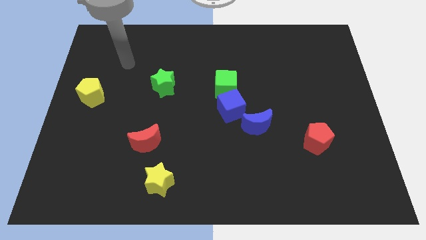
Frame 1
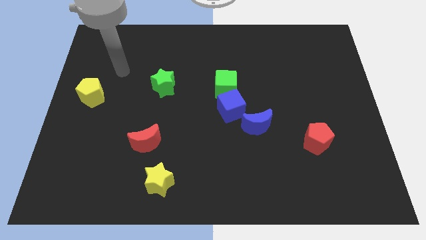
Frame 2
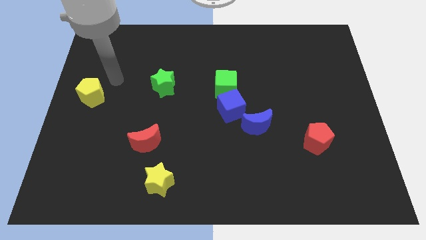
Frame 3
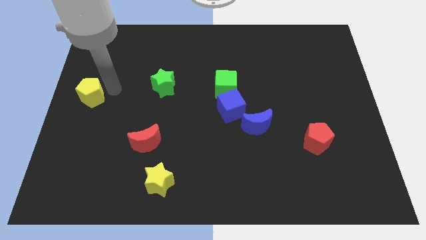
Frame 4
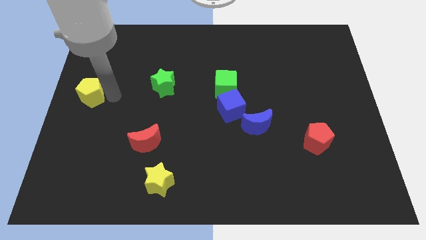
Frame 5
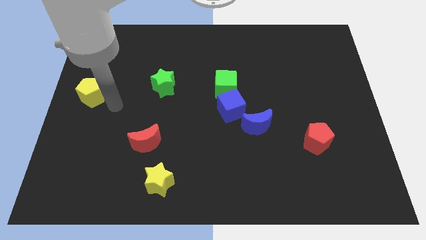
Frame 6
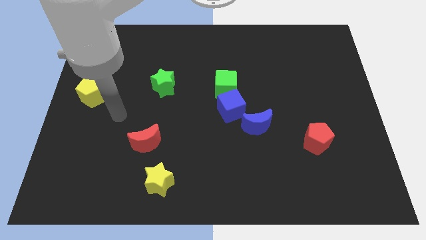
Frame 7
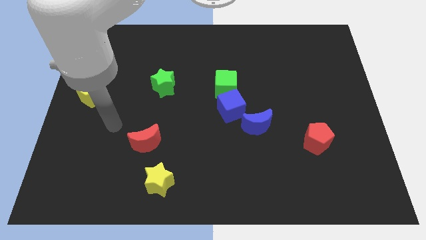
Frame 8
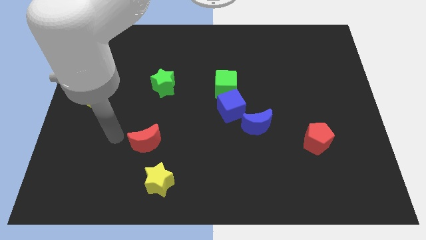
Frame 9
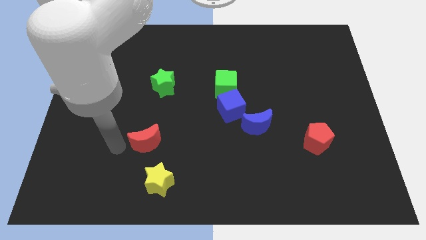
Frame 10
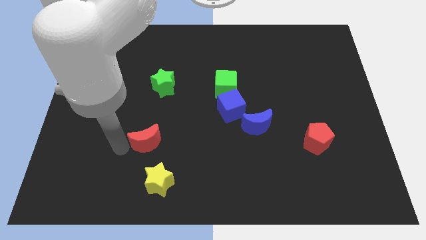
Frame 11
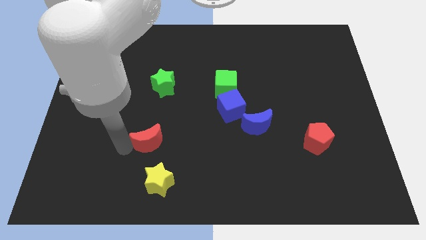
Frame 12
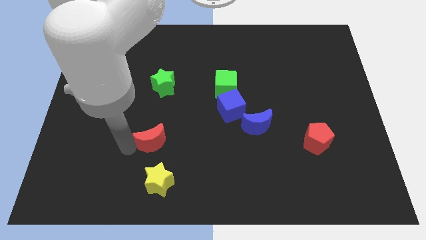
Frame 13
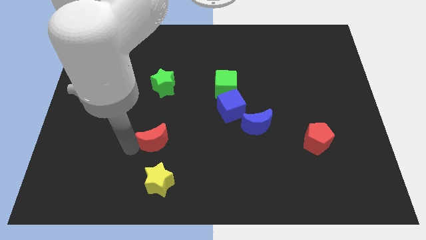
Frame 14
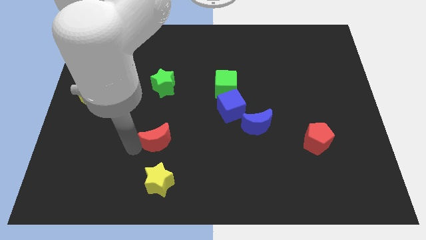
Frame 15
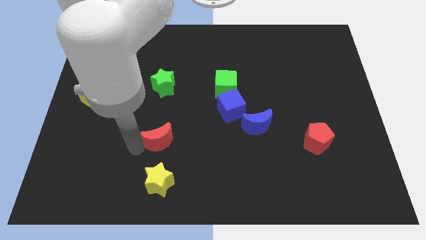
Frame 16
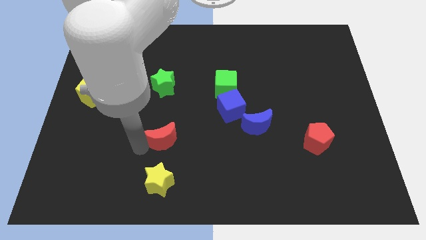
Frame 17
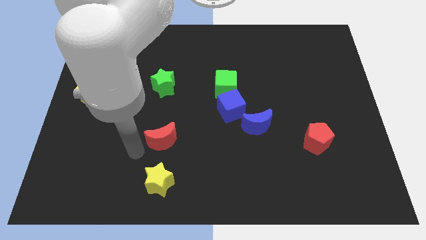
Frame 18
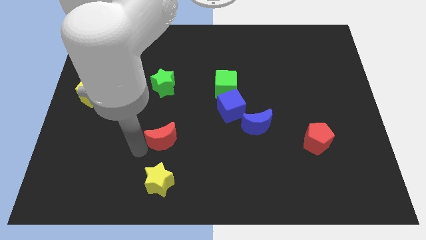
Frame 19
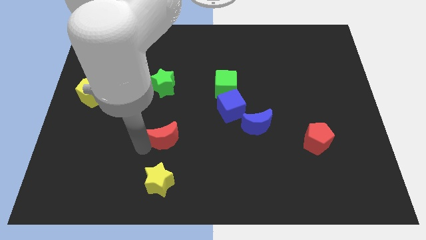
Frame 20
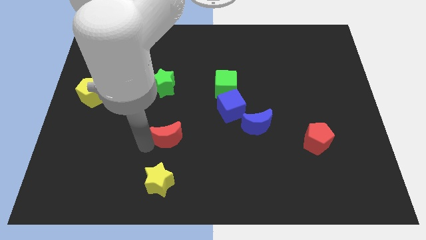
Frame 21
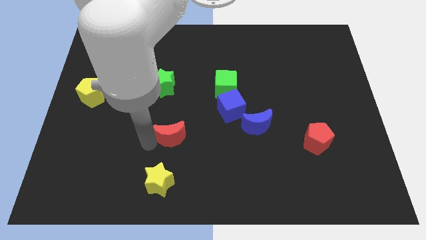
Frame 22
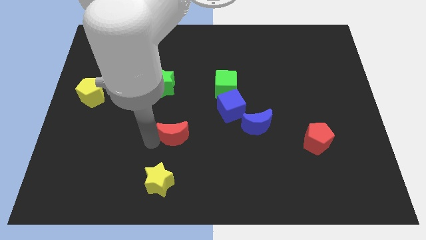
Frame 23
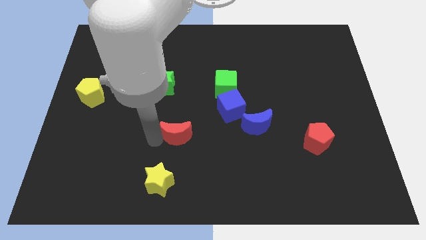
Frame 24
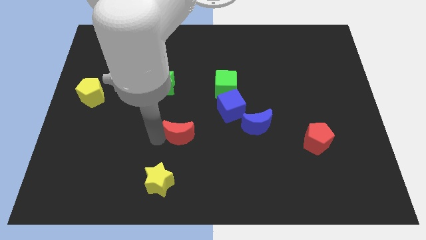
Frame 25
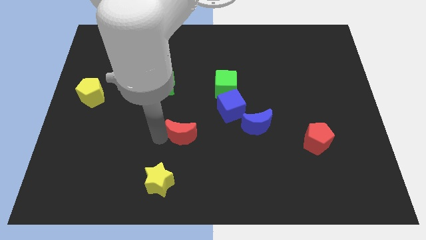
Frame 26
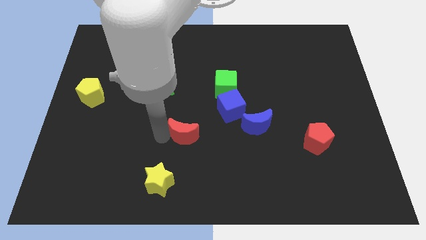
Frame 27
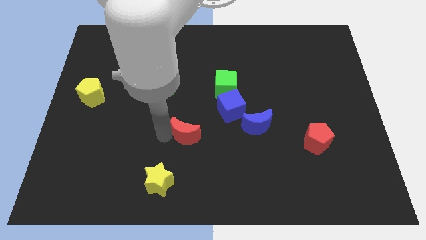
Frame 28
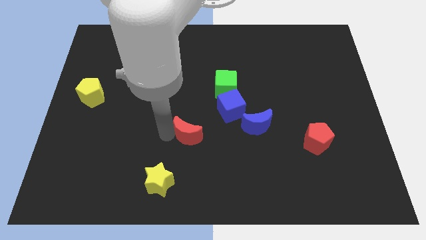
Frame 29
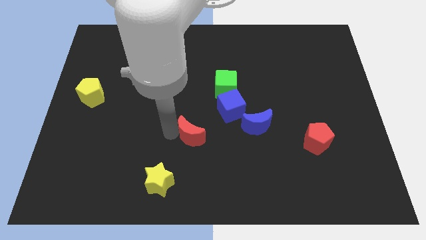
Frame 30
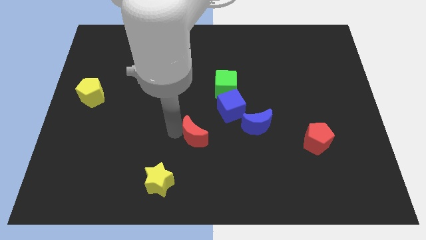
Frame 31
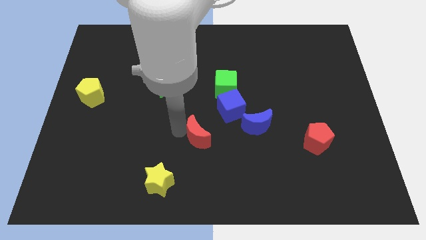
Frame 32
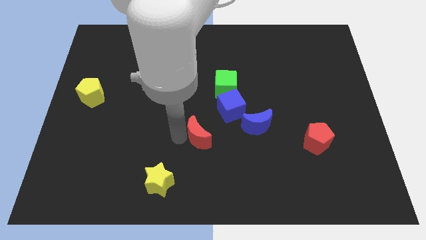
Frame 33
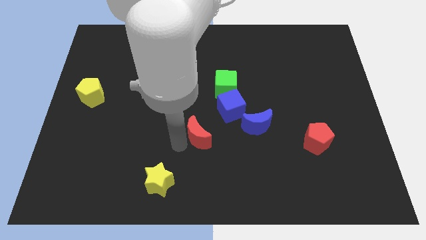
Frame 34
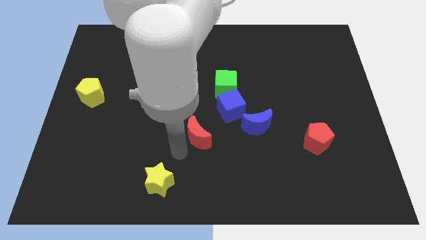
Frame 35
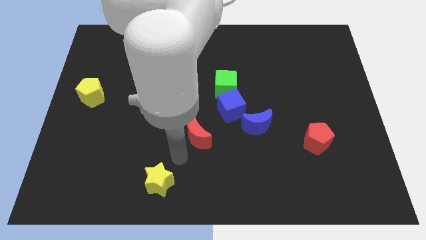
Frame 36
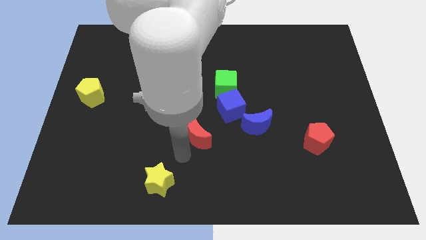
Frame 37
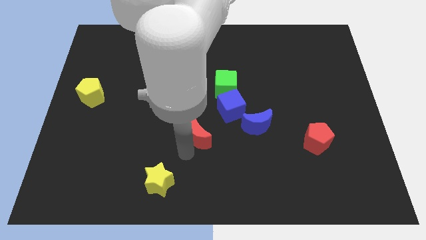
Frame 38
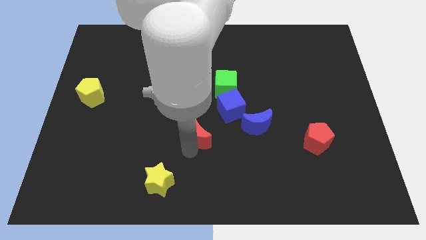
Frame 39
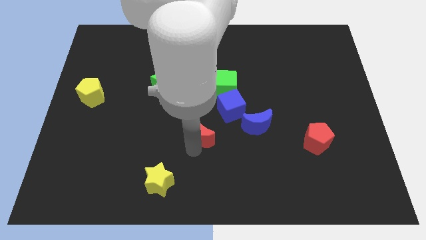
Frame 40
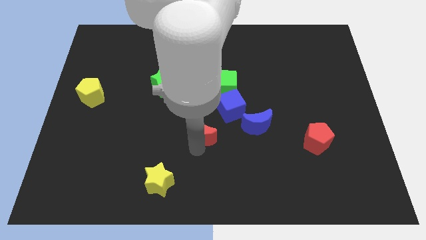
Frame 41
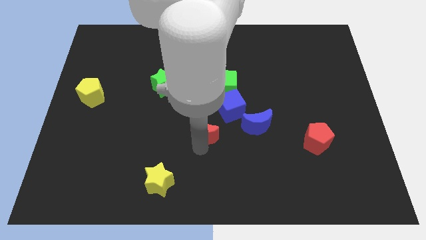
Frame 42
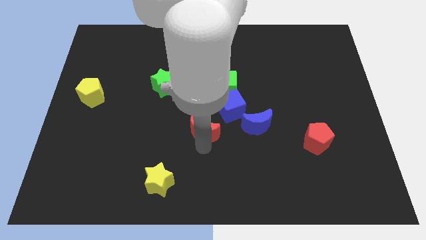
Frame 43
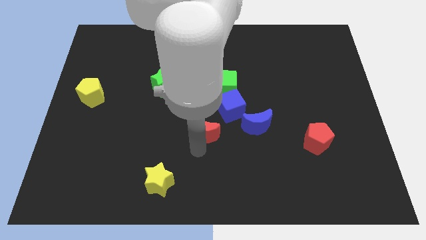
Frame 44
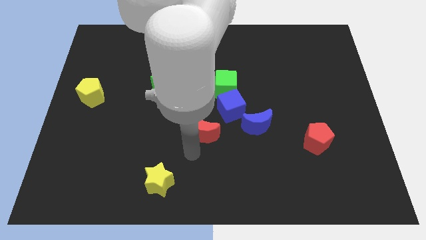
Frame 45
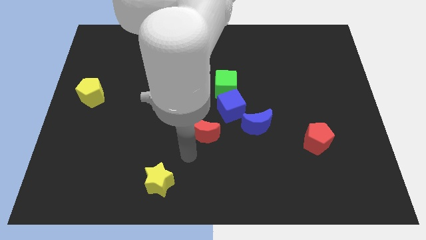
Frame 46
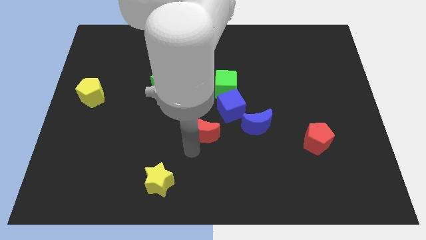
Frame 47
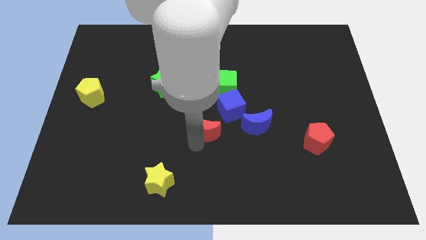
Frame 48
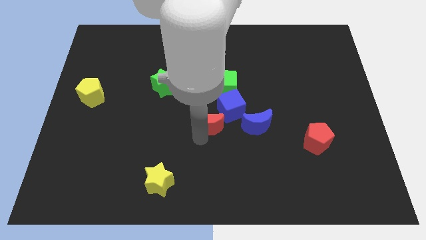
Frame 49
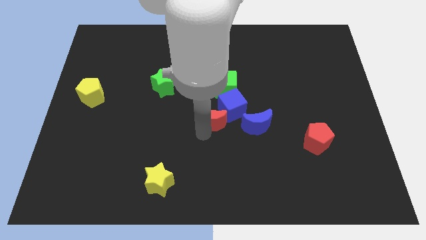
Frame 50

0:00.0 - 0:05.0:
put the red moon towards the blue cube

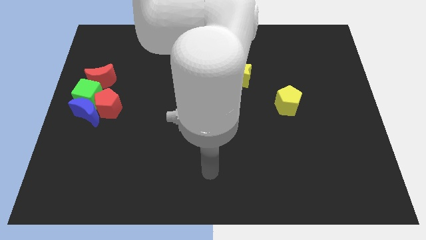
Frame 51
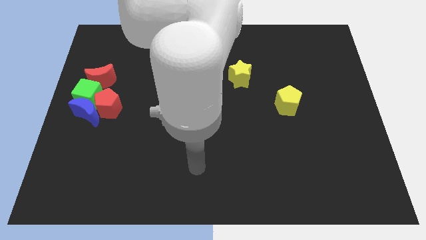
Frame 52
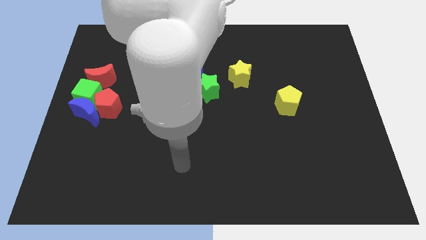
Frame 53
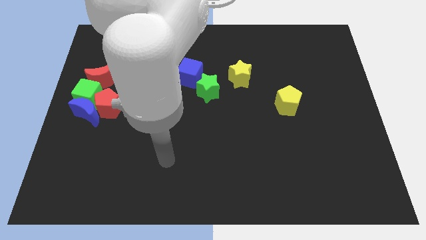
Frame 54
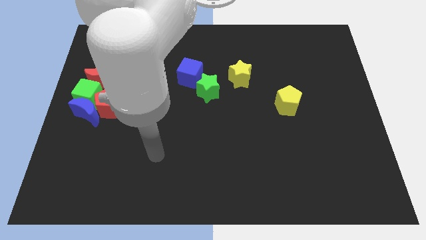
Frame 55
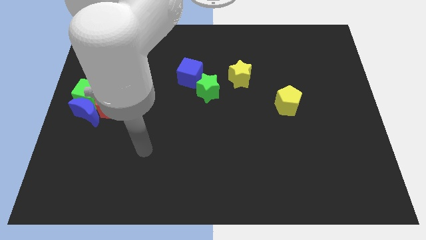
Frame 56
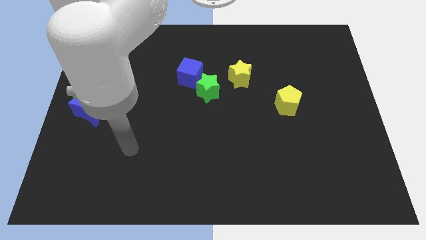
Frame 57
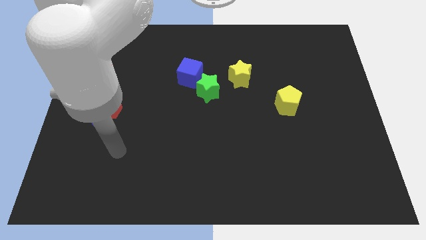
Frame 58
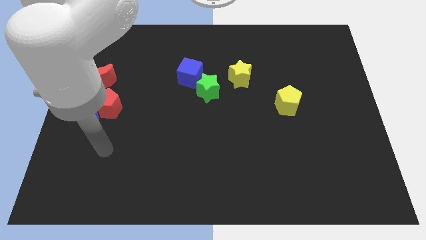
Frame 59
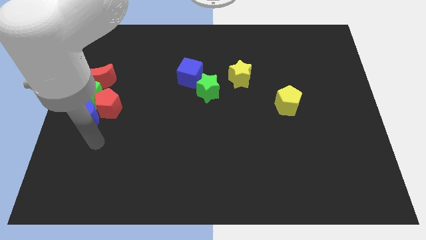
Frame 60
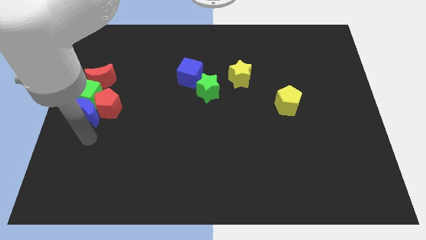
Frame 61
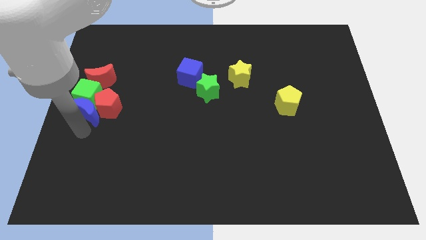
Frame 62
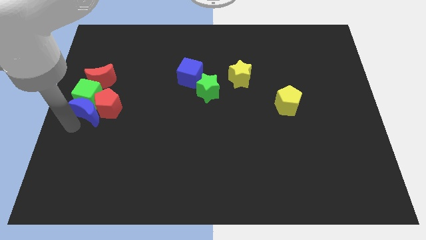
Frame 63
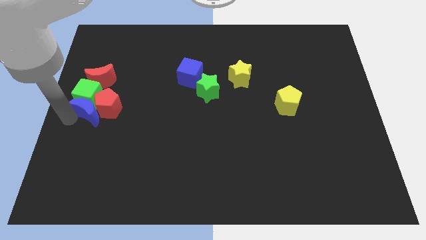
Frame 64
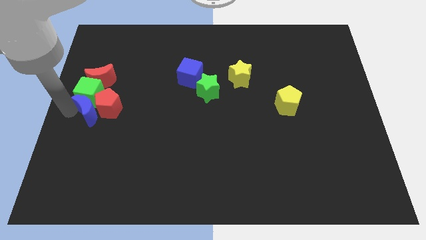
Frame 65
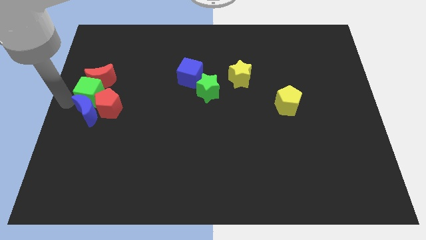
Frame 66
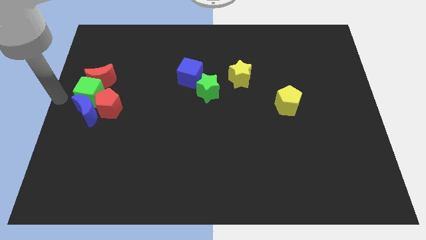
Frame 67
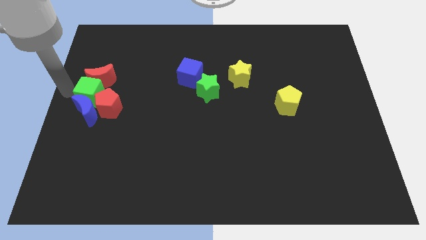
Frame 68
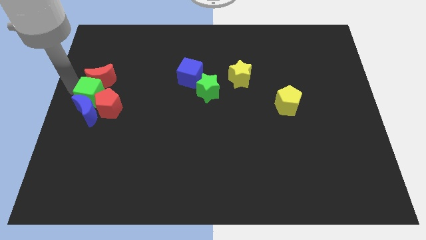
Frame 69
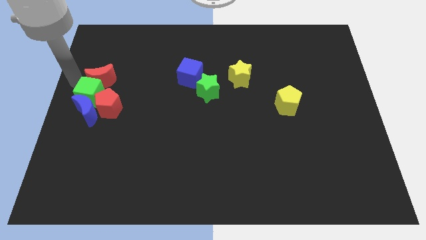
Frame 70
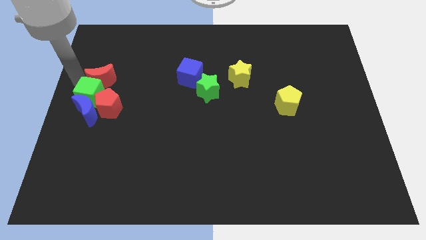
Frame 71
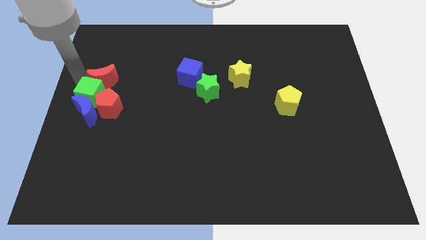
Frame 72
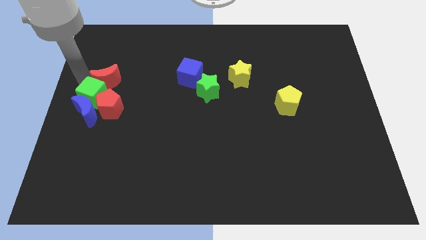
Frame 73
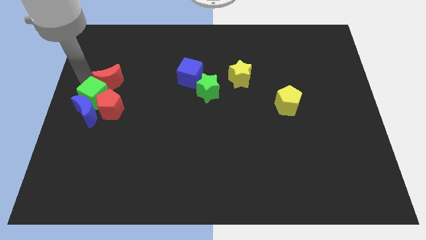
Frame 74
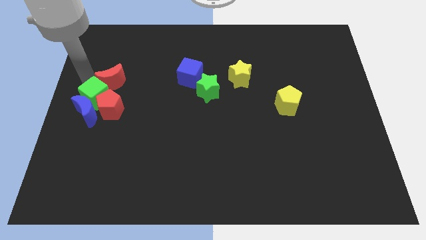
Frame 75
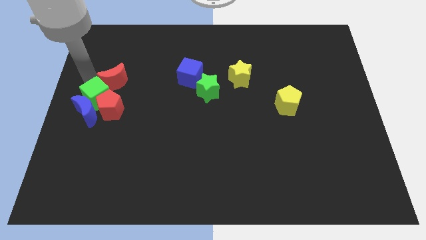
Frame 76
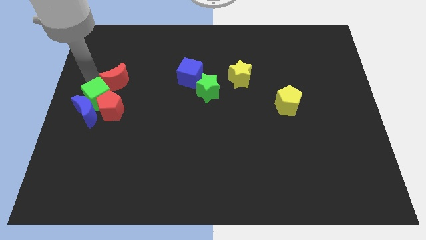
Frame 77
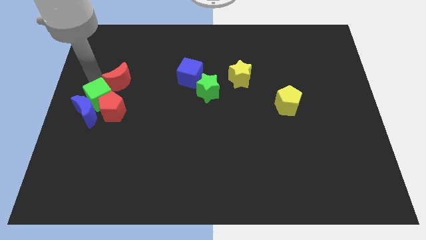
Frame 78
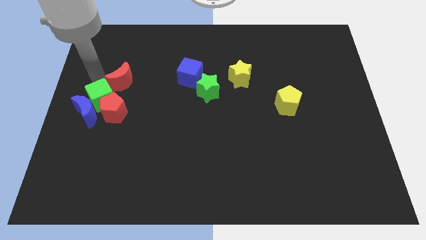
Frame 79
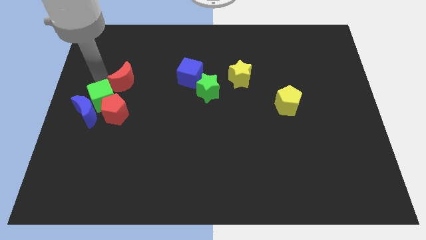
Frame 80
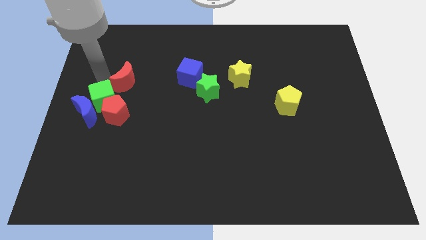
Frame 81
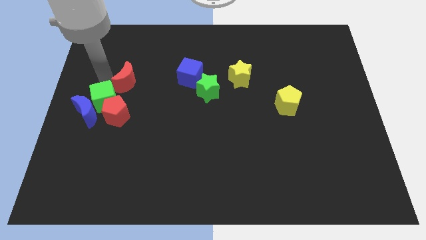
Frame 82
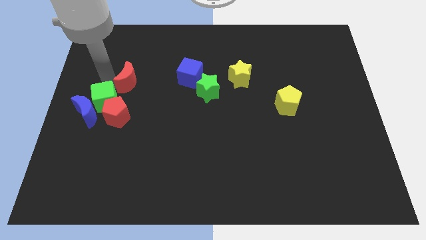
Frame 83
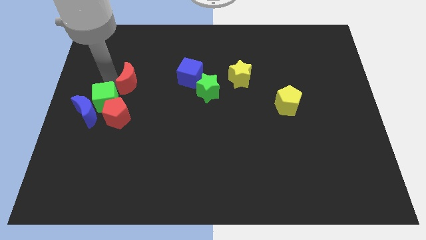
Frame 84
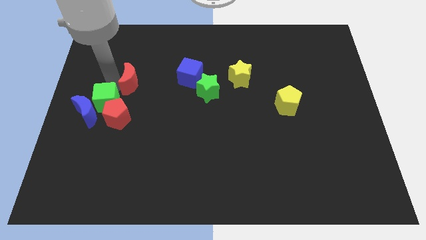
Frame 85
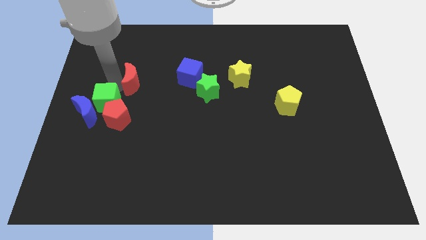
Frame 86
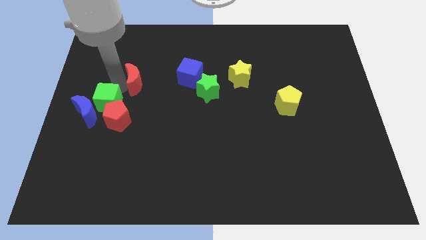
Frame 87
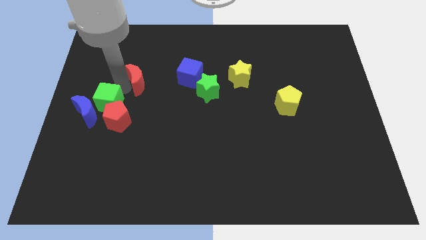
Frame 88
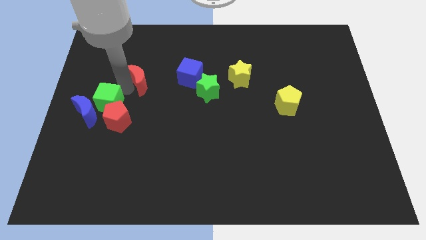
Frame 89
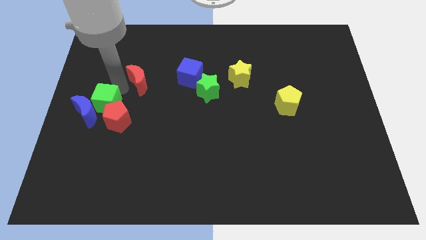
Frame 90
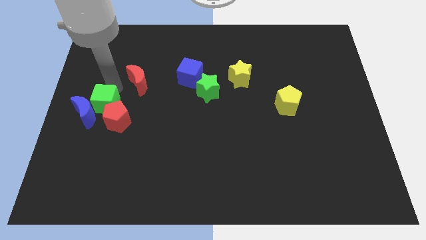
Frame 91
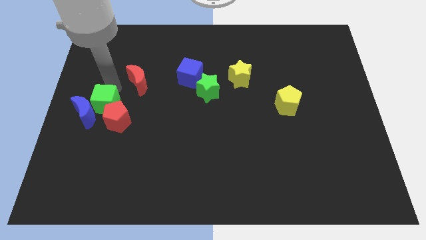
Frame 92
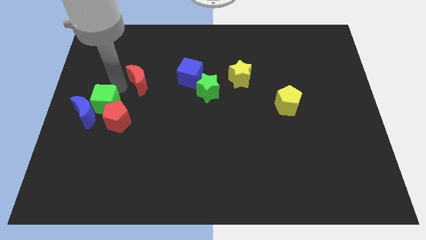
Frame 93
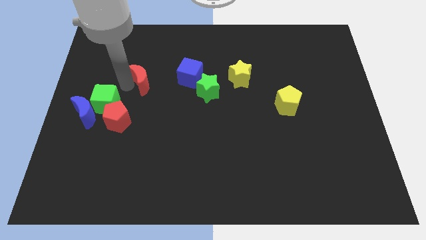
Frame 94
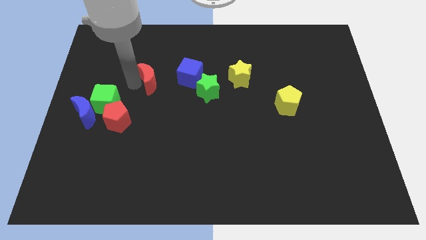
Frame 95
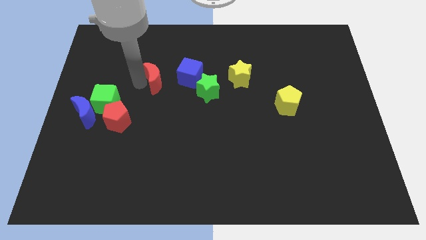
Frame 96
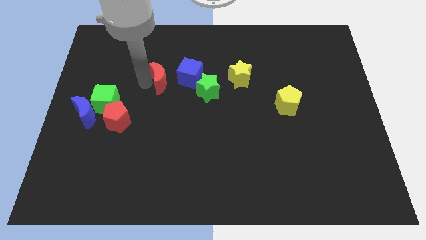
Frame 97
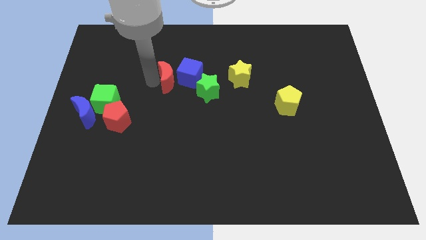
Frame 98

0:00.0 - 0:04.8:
slide the red moon next to the blue cube
